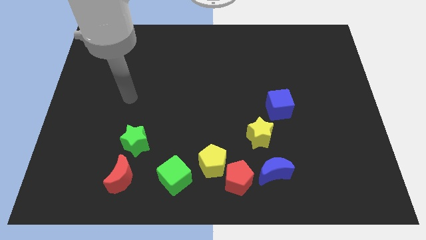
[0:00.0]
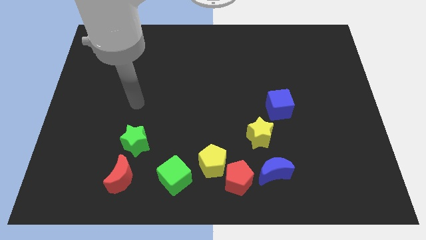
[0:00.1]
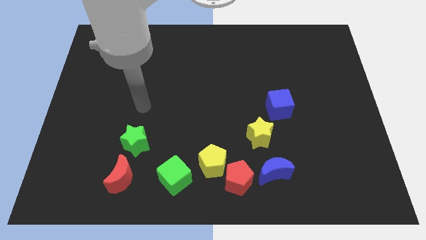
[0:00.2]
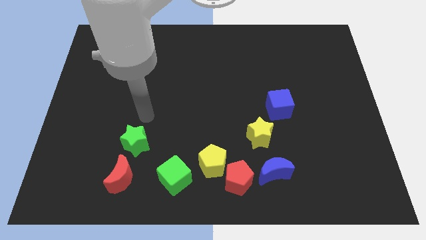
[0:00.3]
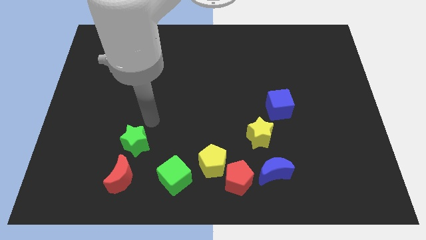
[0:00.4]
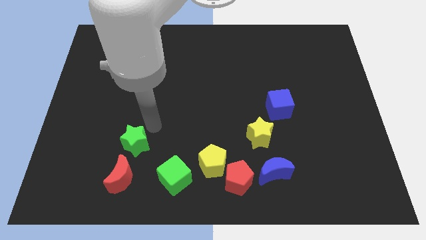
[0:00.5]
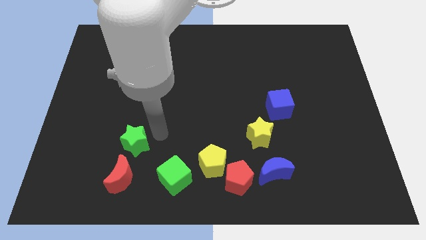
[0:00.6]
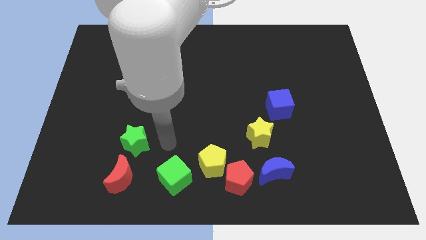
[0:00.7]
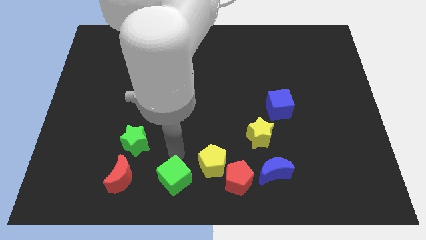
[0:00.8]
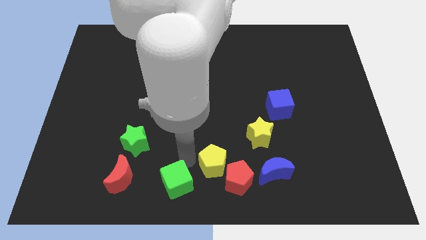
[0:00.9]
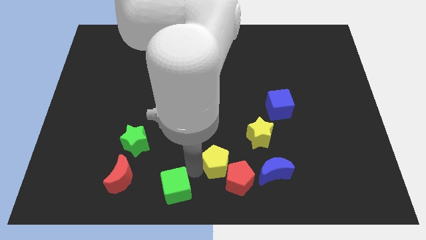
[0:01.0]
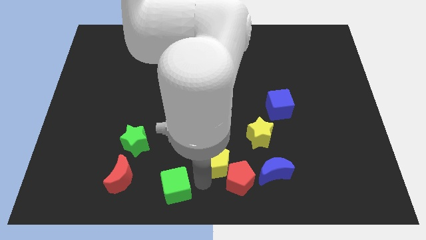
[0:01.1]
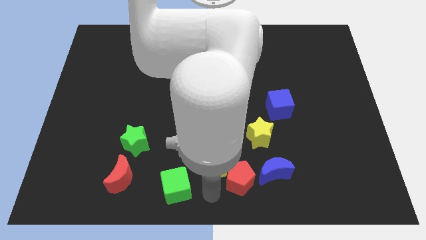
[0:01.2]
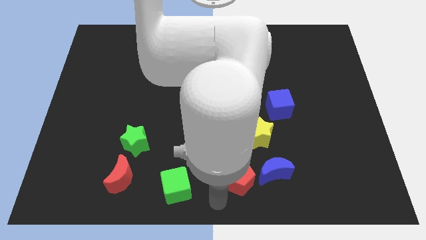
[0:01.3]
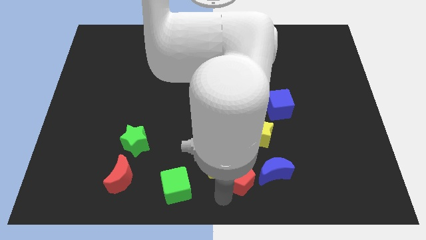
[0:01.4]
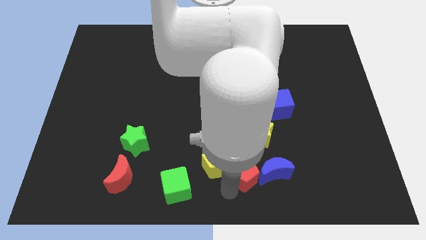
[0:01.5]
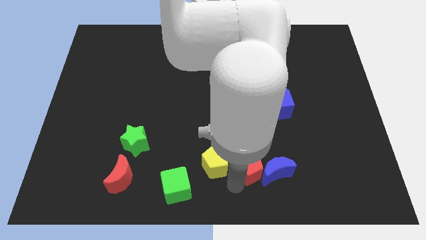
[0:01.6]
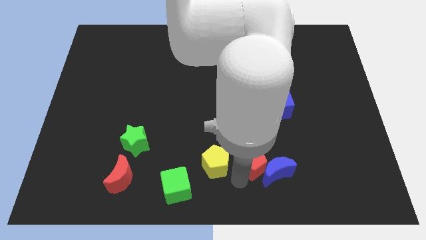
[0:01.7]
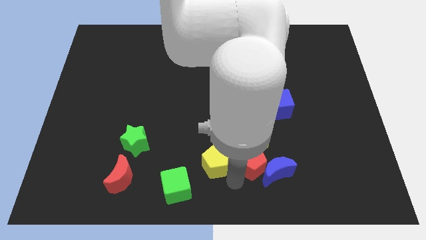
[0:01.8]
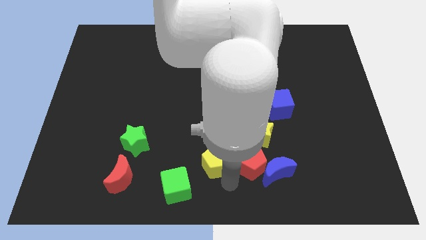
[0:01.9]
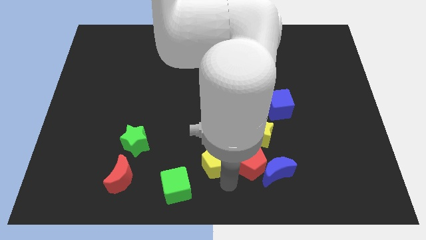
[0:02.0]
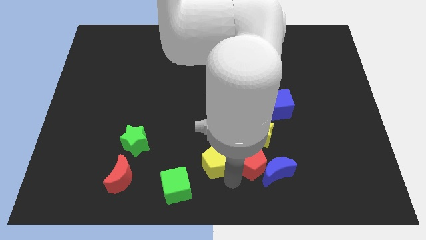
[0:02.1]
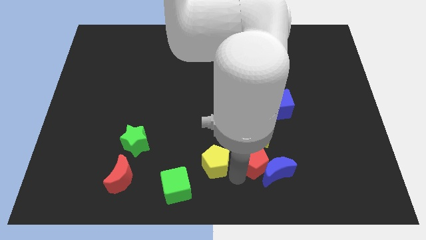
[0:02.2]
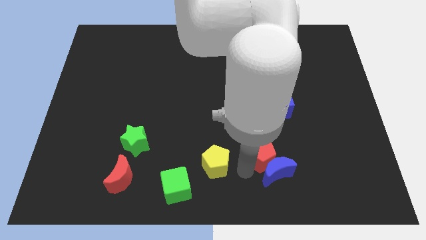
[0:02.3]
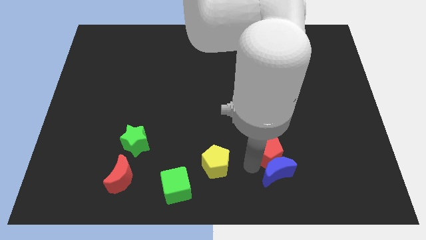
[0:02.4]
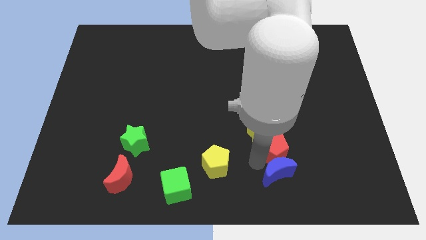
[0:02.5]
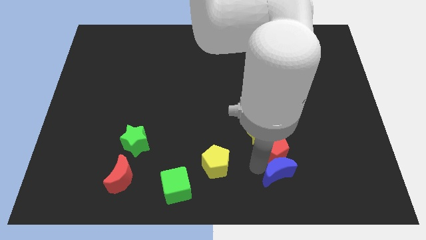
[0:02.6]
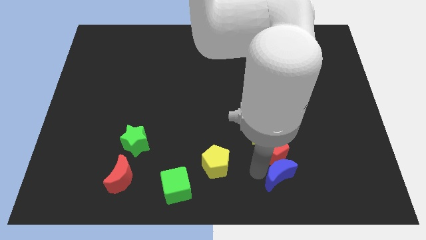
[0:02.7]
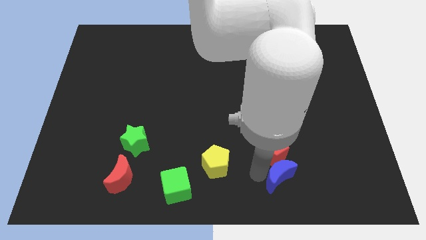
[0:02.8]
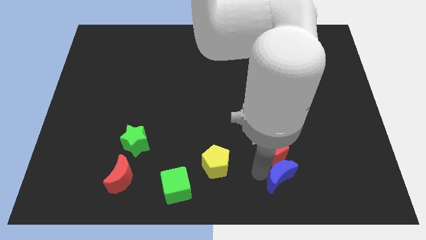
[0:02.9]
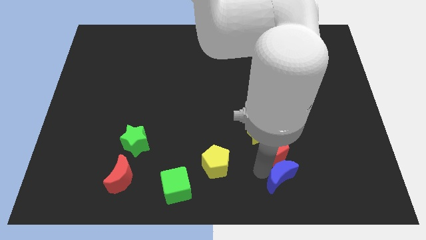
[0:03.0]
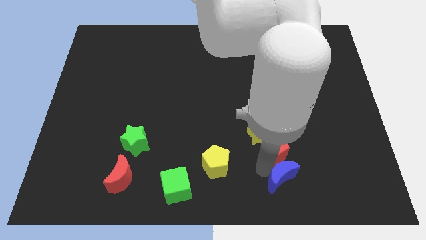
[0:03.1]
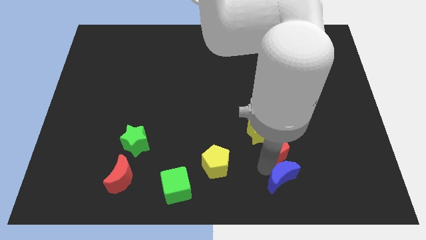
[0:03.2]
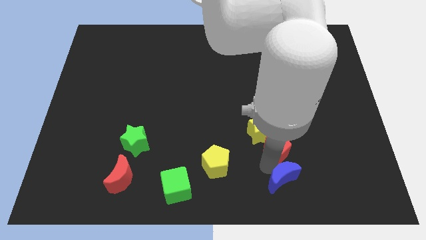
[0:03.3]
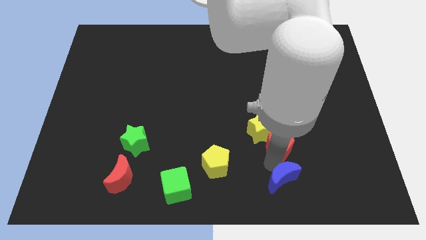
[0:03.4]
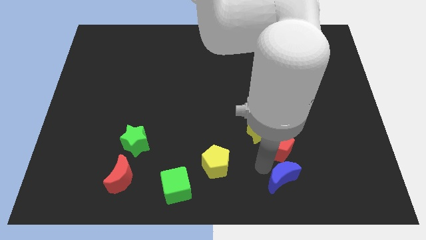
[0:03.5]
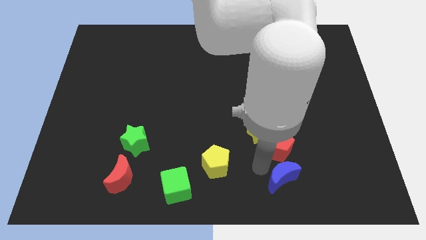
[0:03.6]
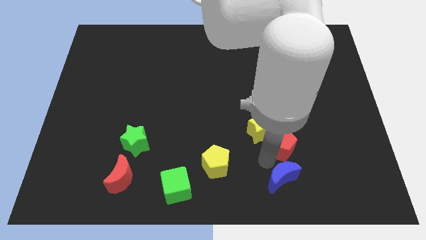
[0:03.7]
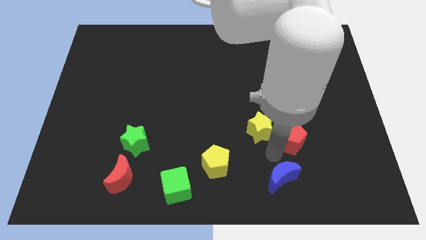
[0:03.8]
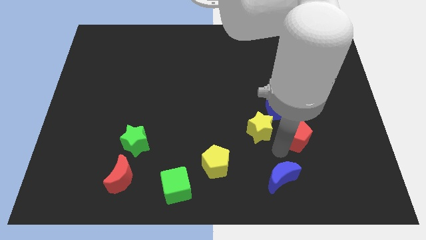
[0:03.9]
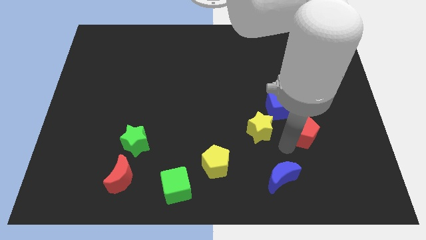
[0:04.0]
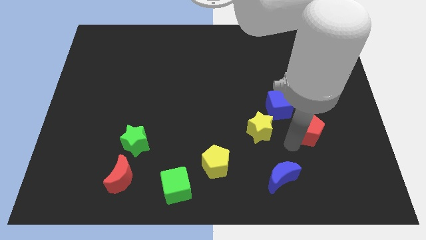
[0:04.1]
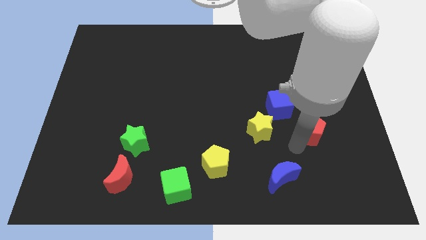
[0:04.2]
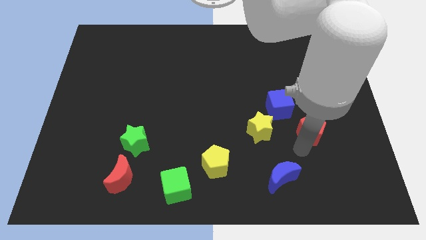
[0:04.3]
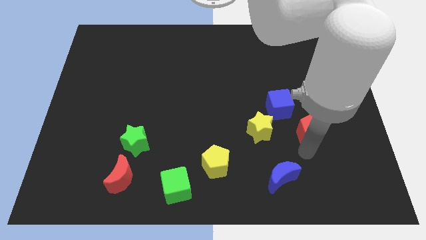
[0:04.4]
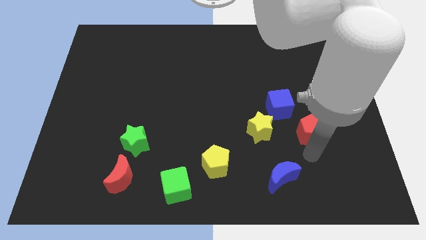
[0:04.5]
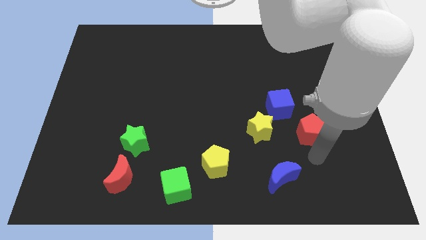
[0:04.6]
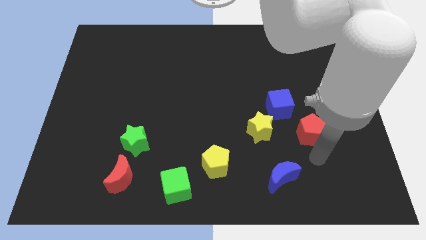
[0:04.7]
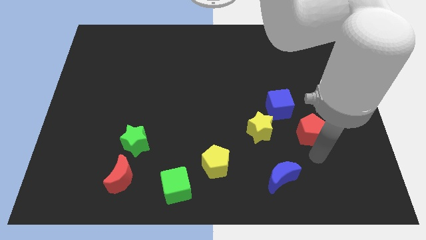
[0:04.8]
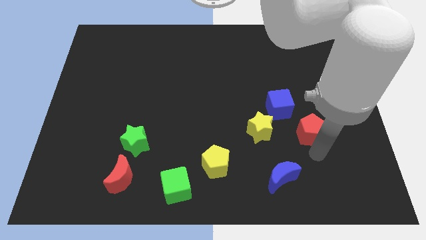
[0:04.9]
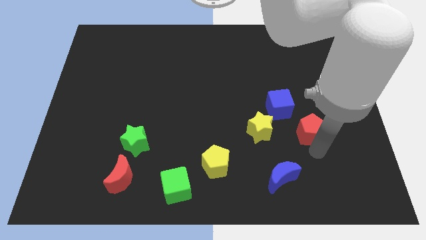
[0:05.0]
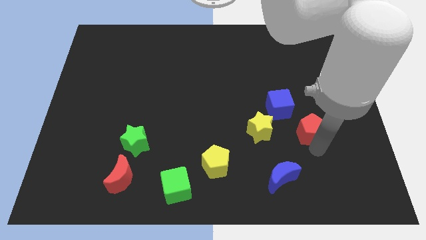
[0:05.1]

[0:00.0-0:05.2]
move the red pentagon up and right

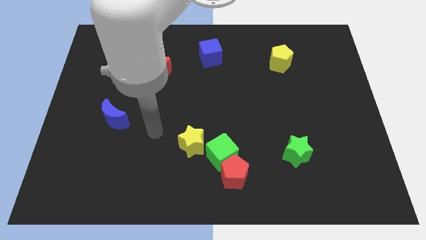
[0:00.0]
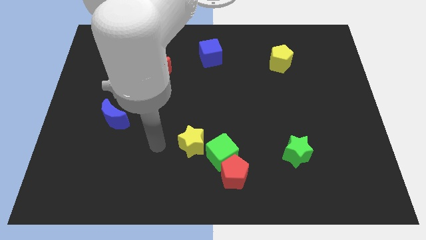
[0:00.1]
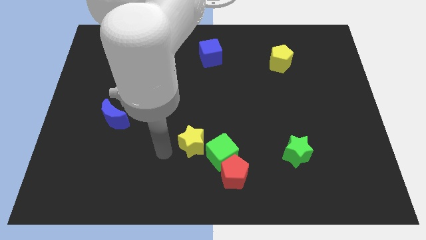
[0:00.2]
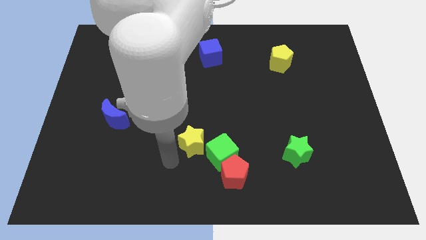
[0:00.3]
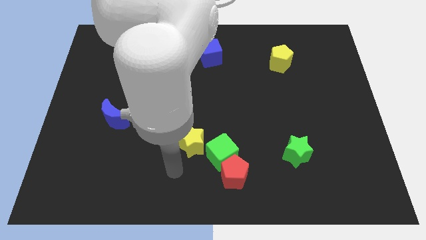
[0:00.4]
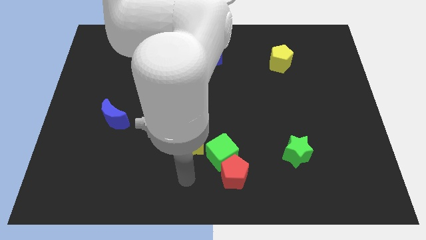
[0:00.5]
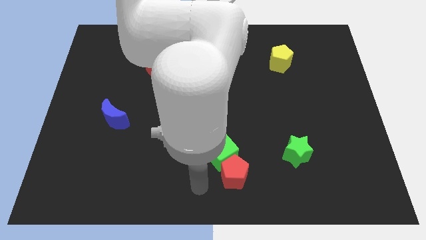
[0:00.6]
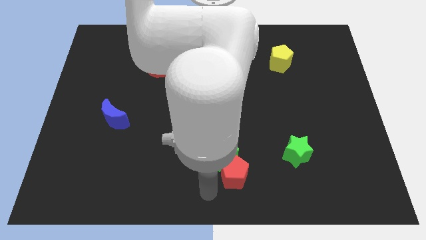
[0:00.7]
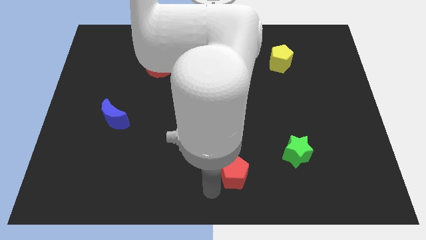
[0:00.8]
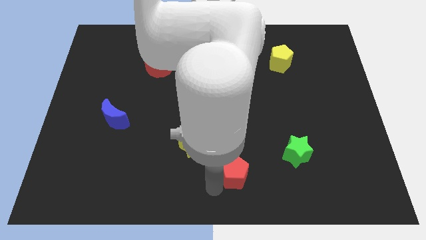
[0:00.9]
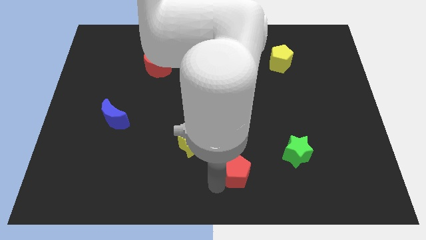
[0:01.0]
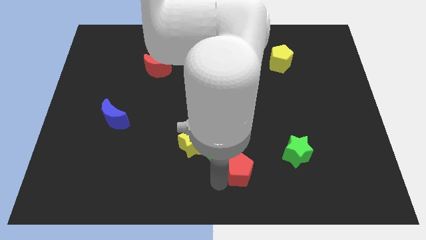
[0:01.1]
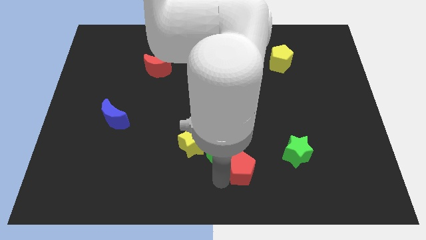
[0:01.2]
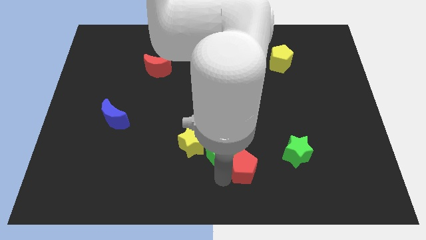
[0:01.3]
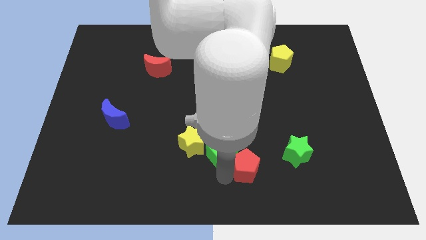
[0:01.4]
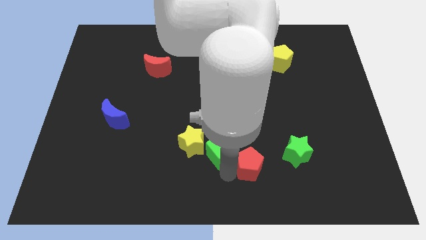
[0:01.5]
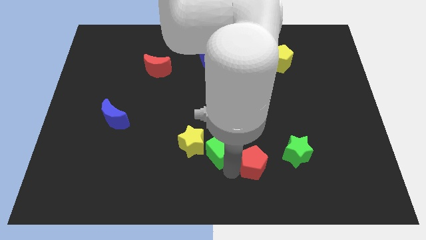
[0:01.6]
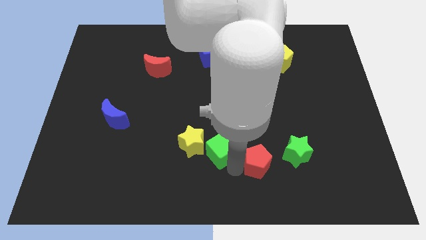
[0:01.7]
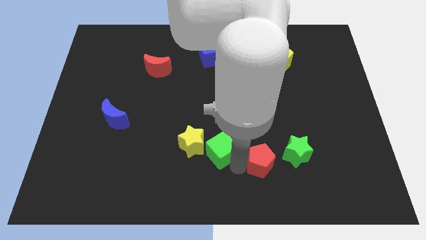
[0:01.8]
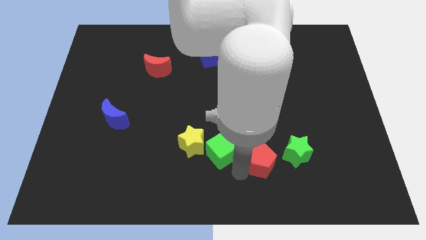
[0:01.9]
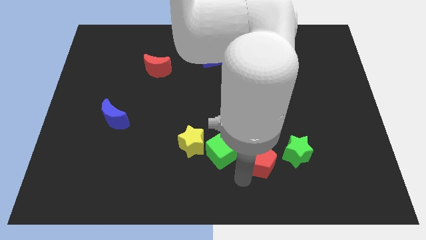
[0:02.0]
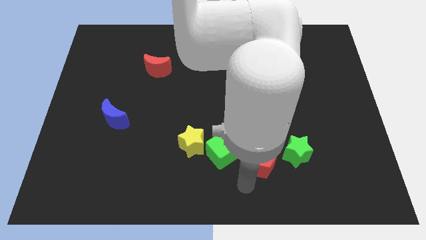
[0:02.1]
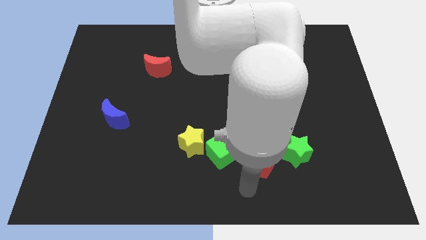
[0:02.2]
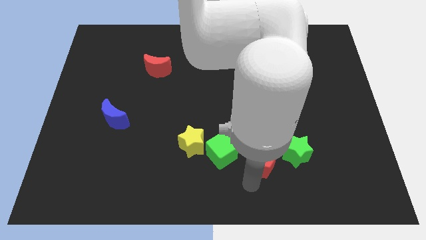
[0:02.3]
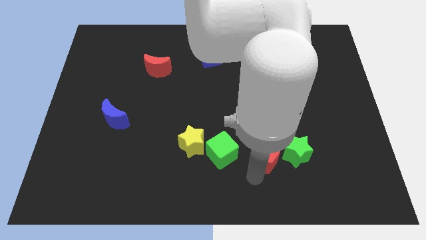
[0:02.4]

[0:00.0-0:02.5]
slide the red pentagon diagonally upwards and right a little

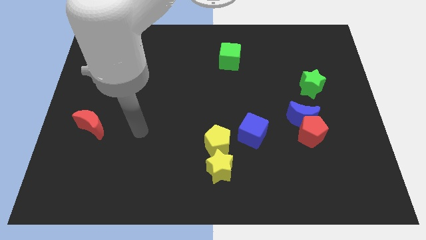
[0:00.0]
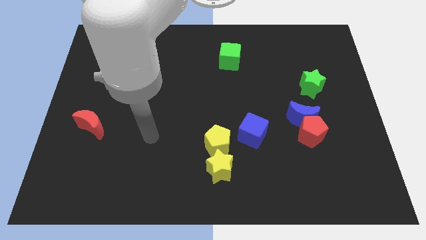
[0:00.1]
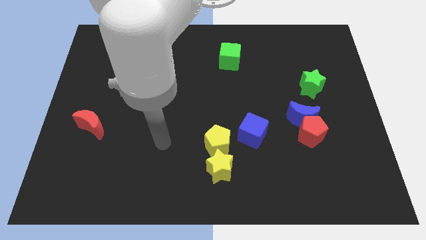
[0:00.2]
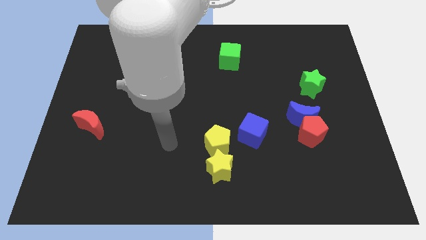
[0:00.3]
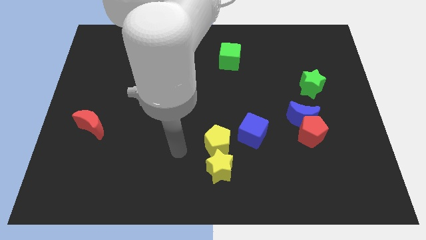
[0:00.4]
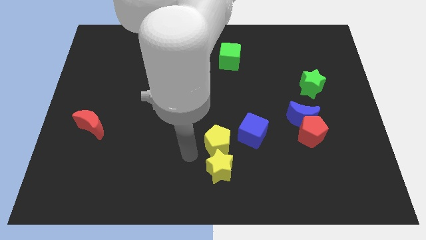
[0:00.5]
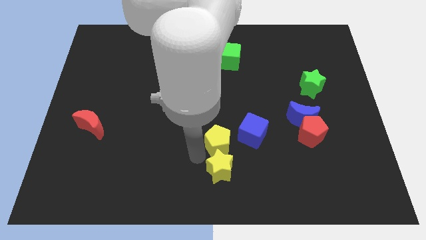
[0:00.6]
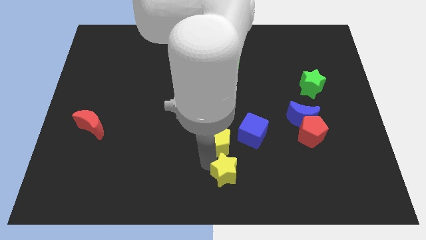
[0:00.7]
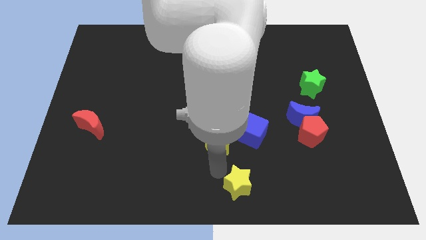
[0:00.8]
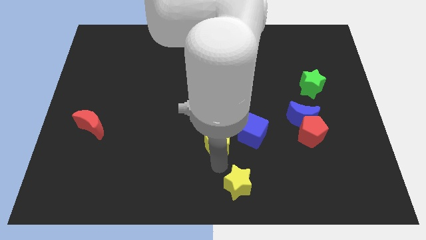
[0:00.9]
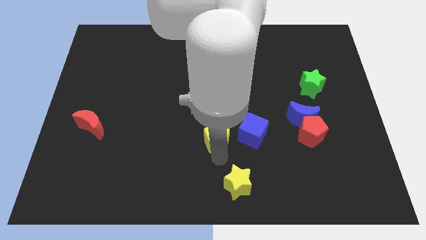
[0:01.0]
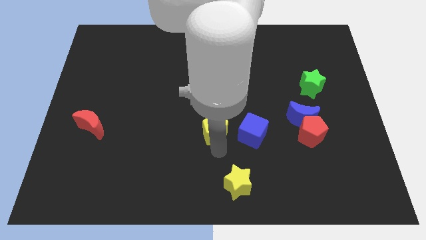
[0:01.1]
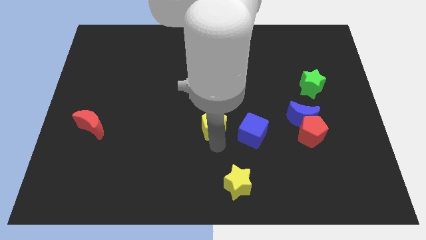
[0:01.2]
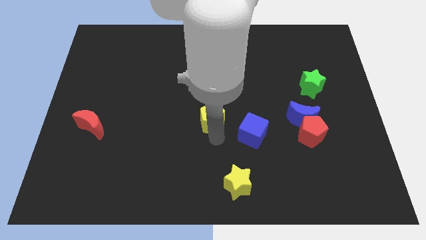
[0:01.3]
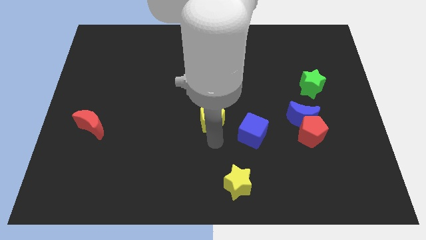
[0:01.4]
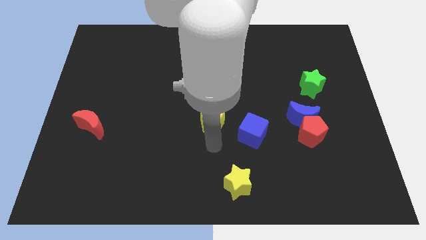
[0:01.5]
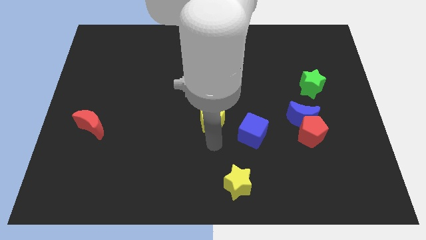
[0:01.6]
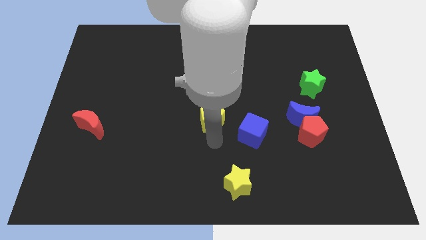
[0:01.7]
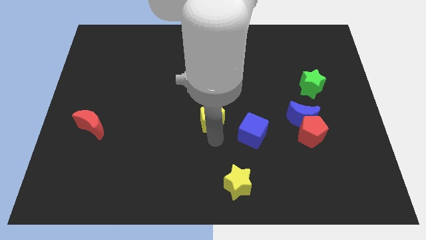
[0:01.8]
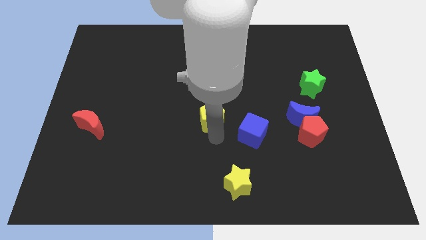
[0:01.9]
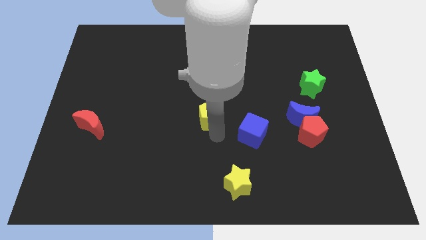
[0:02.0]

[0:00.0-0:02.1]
slide the yellow pentagon a little bit up
